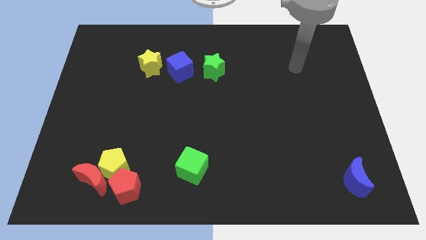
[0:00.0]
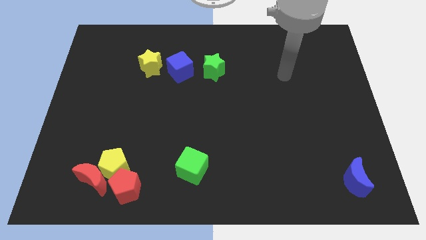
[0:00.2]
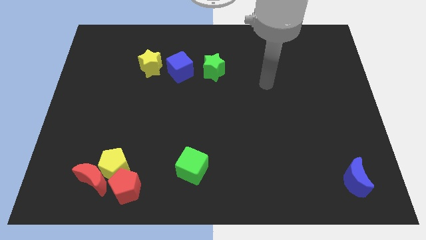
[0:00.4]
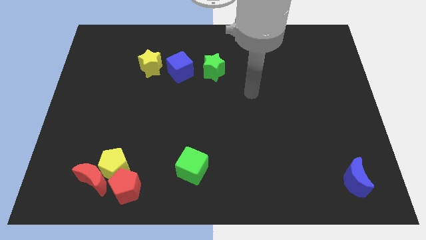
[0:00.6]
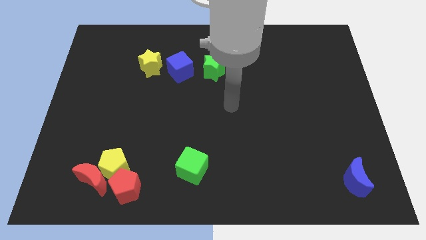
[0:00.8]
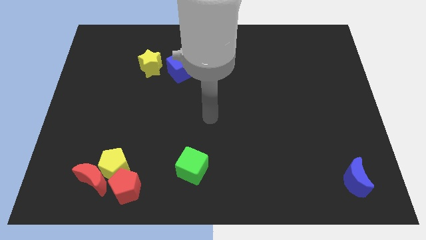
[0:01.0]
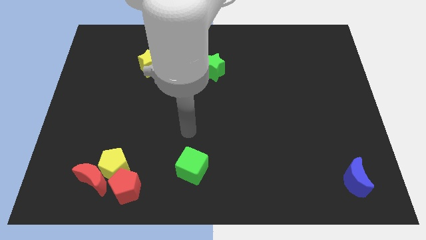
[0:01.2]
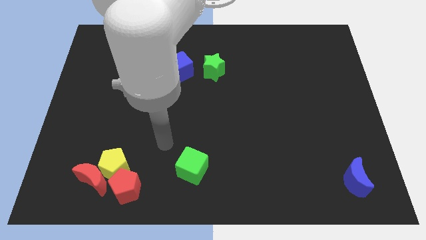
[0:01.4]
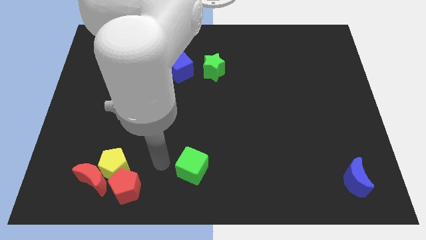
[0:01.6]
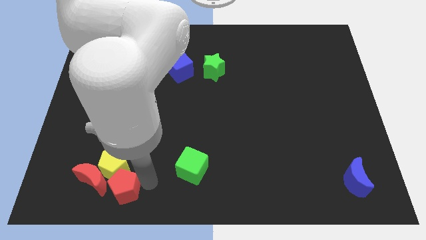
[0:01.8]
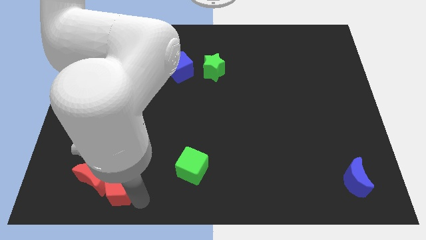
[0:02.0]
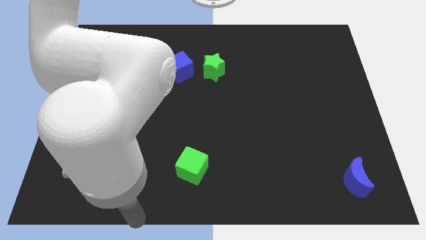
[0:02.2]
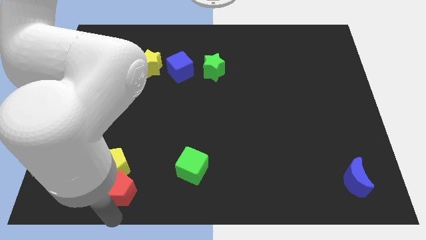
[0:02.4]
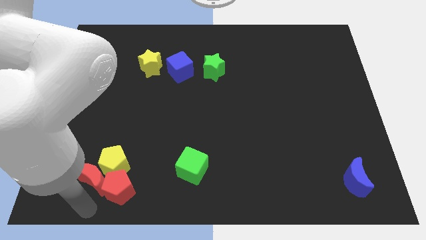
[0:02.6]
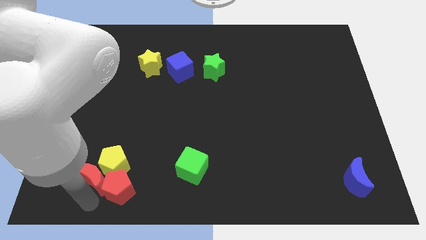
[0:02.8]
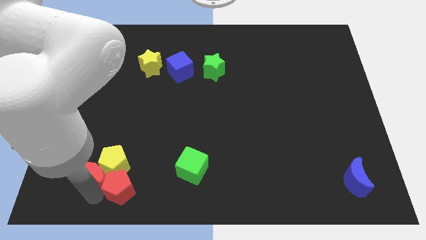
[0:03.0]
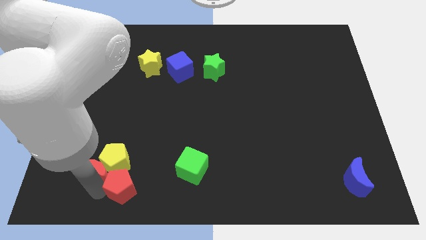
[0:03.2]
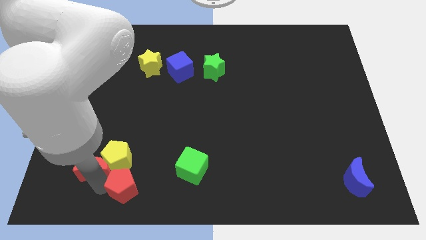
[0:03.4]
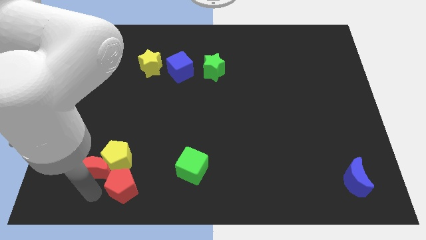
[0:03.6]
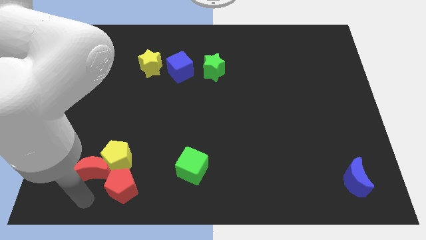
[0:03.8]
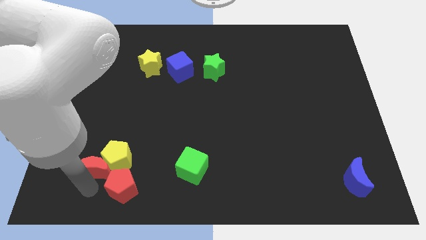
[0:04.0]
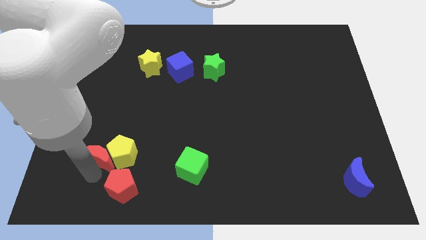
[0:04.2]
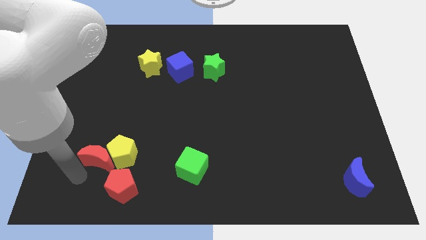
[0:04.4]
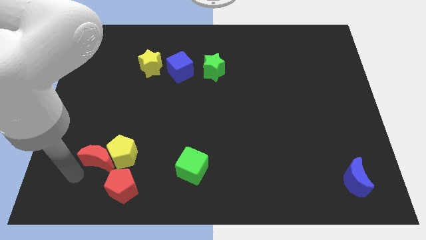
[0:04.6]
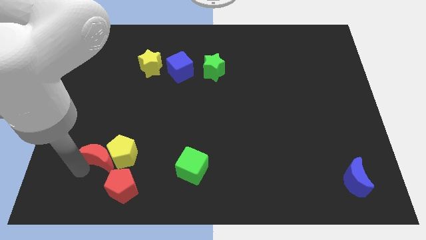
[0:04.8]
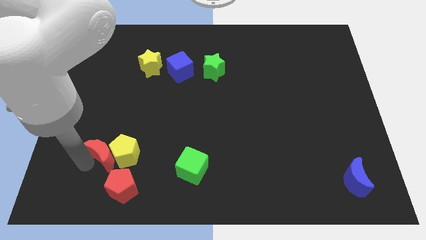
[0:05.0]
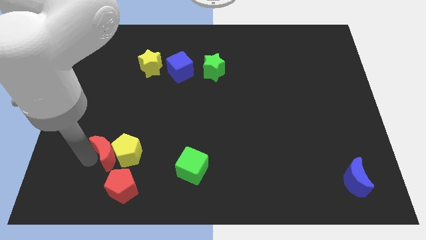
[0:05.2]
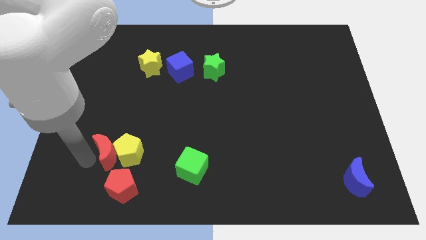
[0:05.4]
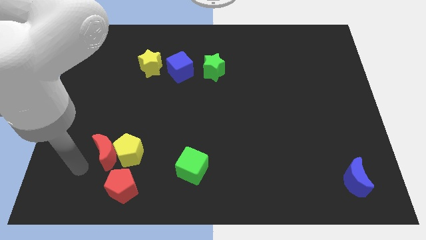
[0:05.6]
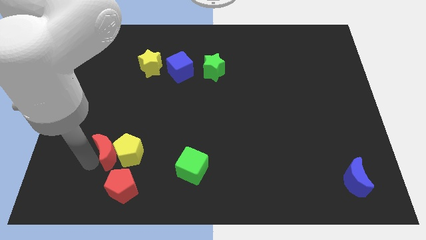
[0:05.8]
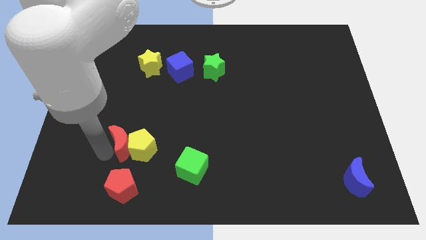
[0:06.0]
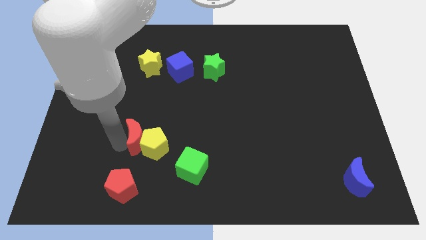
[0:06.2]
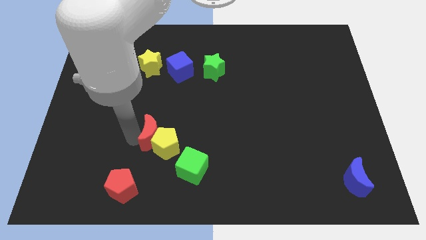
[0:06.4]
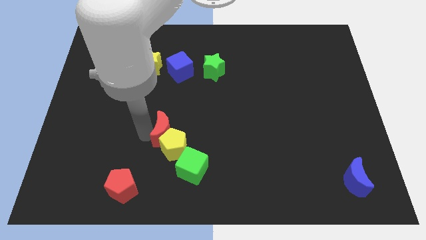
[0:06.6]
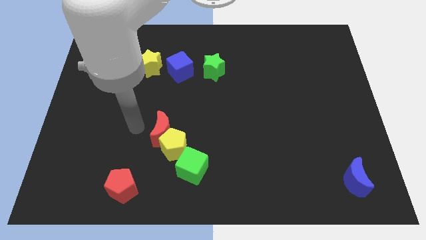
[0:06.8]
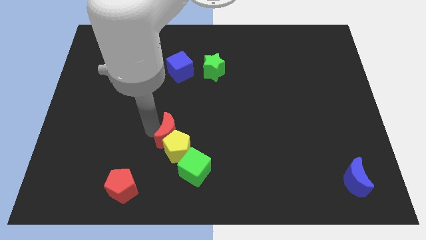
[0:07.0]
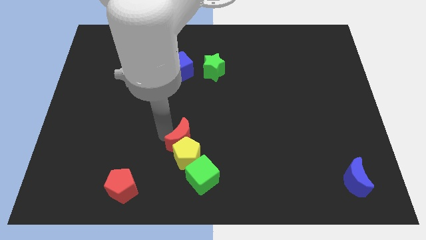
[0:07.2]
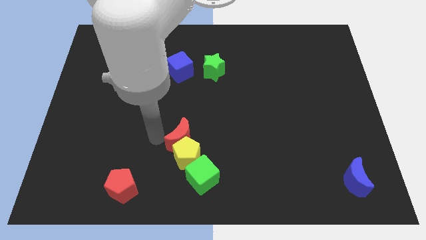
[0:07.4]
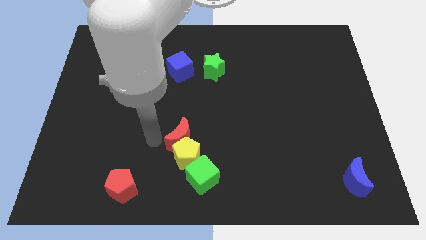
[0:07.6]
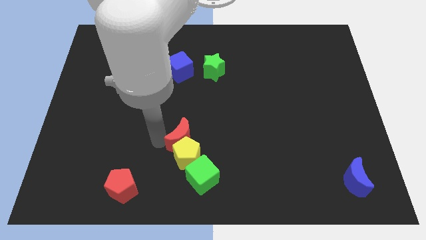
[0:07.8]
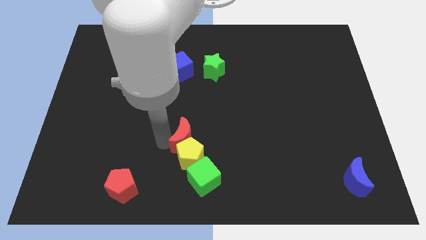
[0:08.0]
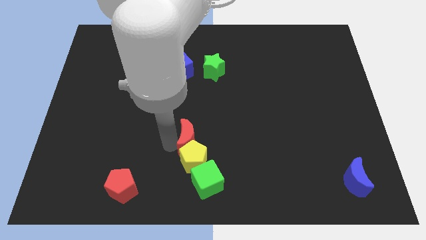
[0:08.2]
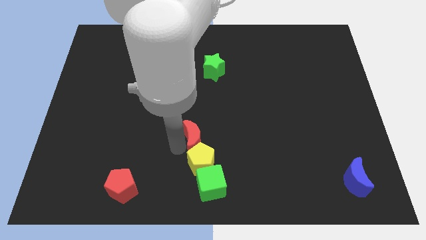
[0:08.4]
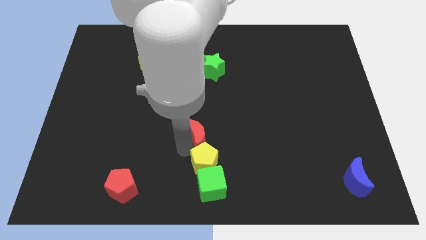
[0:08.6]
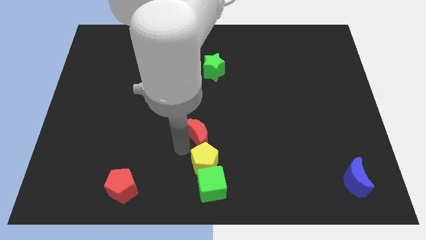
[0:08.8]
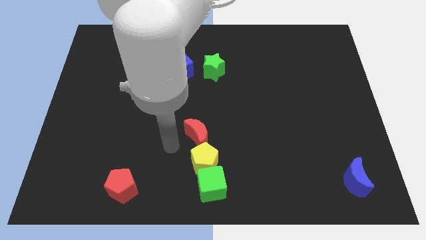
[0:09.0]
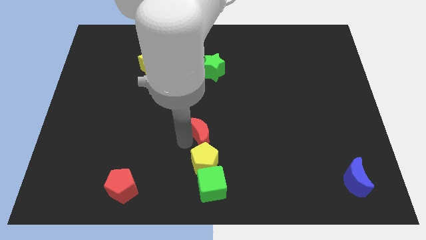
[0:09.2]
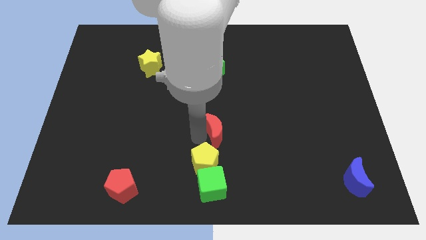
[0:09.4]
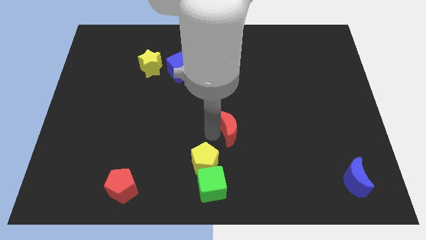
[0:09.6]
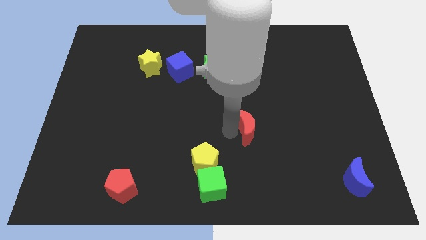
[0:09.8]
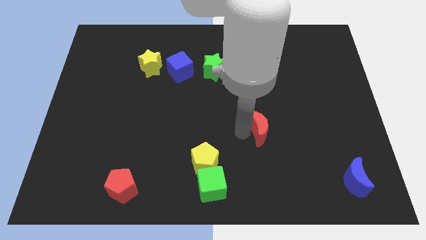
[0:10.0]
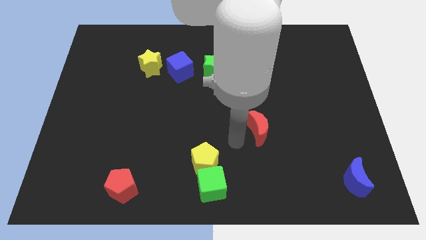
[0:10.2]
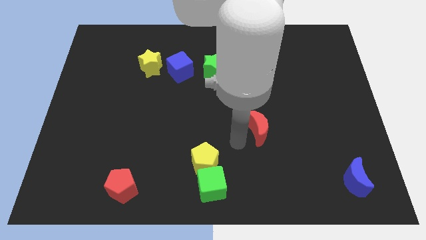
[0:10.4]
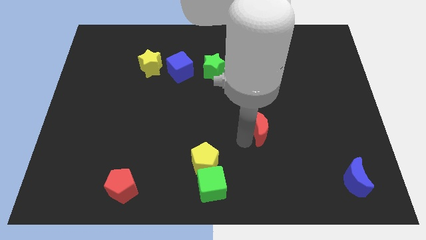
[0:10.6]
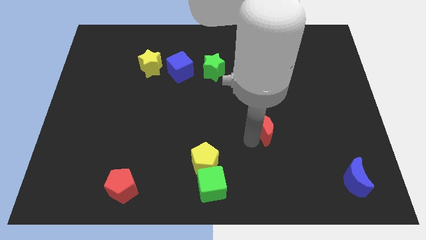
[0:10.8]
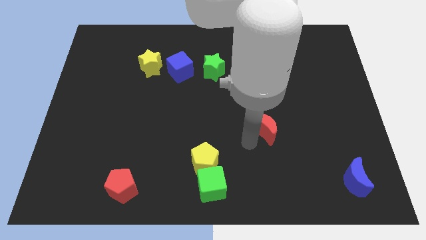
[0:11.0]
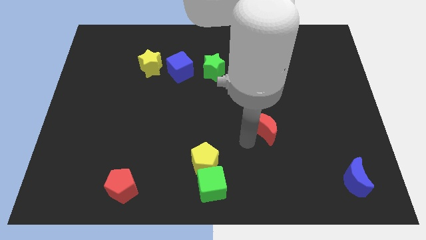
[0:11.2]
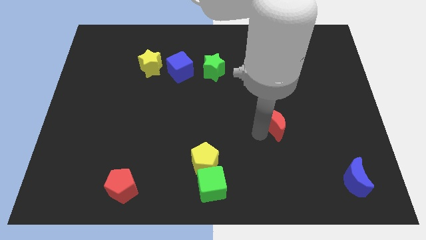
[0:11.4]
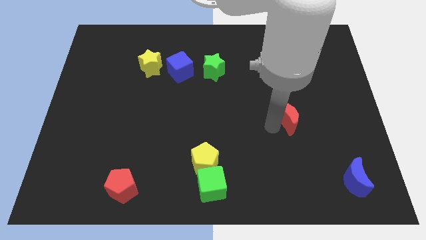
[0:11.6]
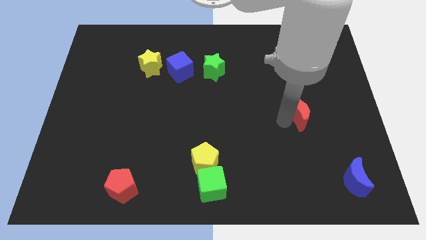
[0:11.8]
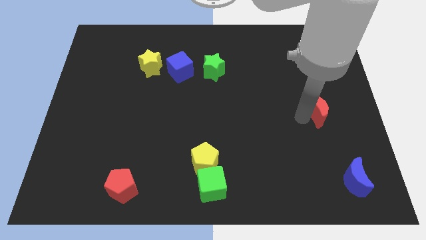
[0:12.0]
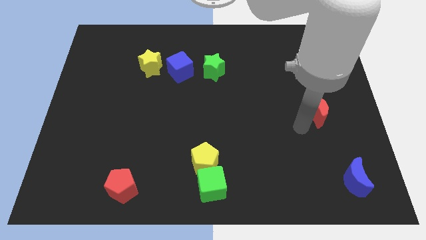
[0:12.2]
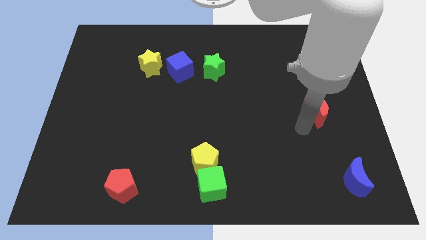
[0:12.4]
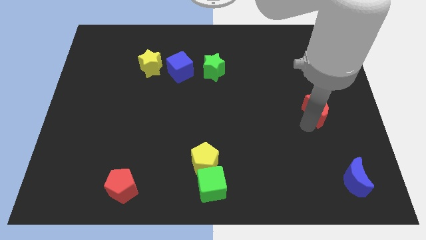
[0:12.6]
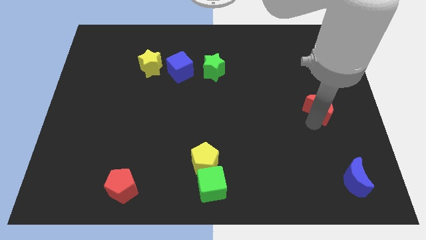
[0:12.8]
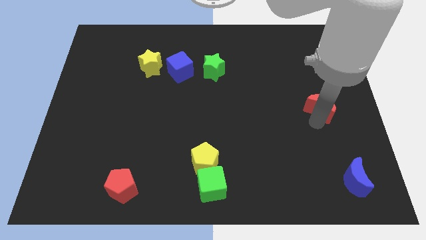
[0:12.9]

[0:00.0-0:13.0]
put the red moon to the right side

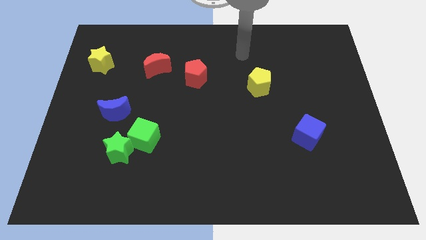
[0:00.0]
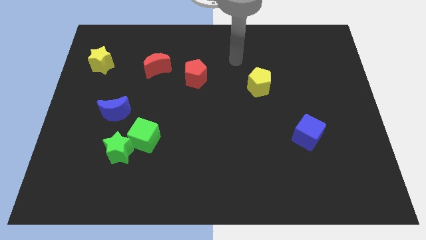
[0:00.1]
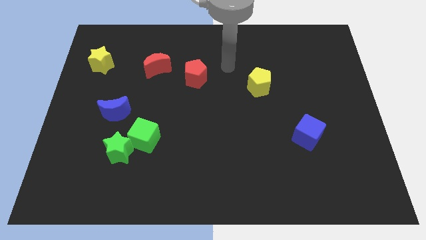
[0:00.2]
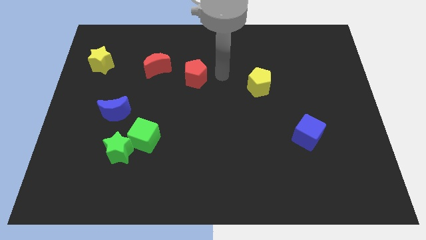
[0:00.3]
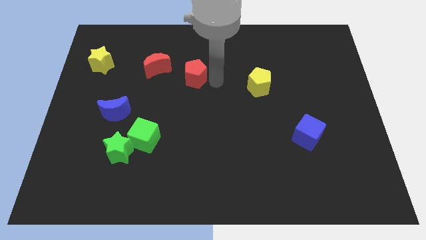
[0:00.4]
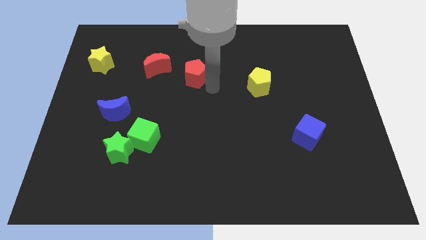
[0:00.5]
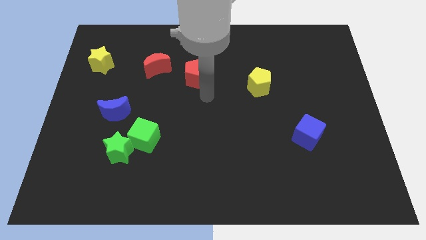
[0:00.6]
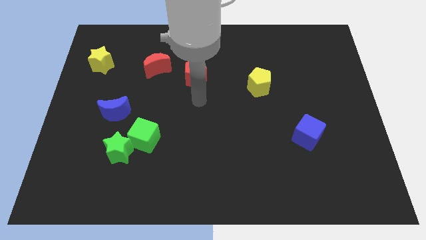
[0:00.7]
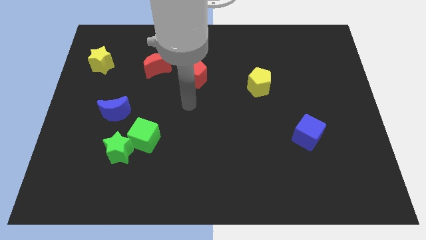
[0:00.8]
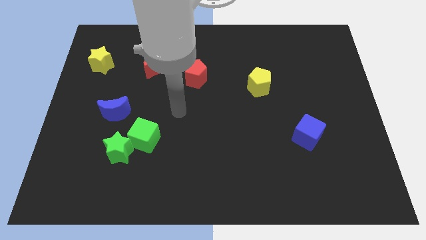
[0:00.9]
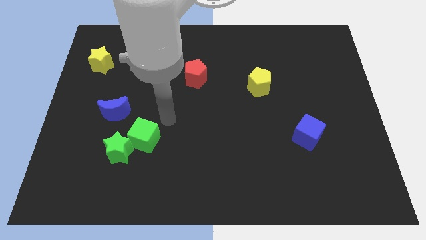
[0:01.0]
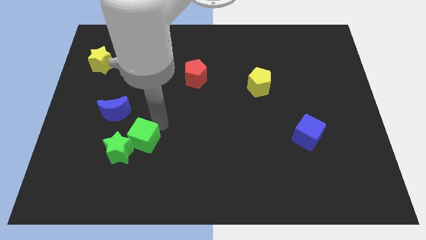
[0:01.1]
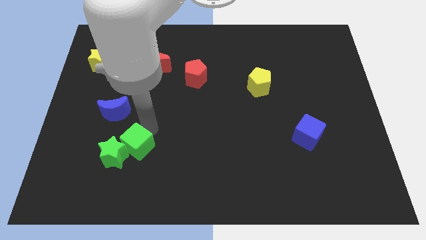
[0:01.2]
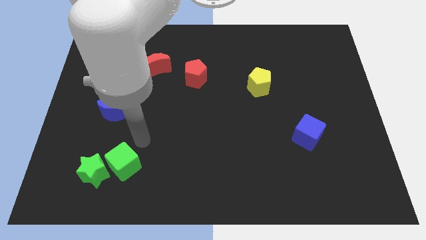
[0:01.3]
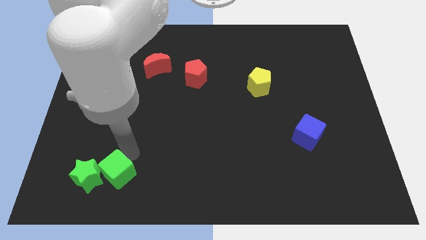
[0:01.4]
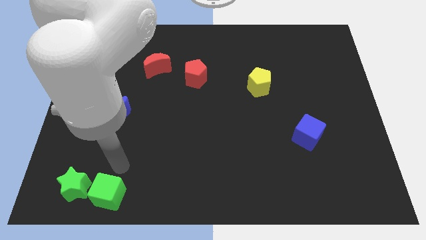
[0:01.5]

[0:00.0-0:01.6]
move the green star to the bottom left
